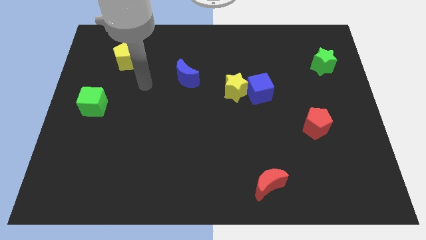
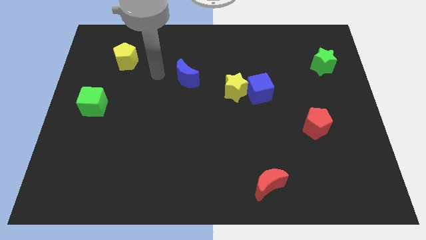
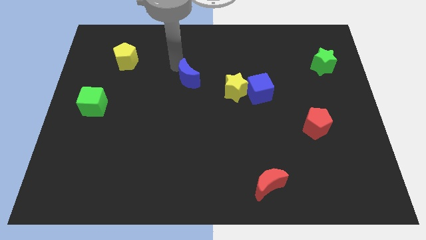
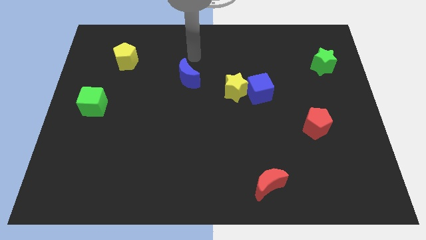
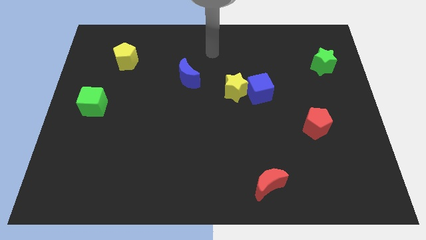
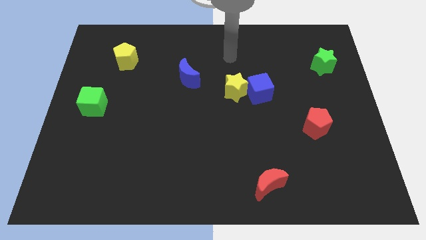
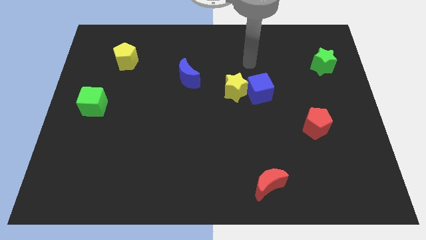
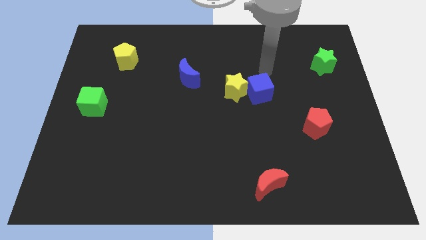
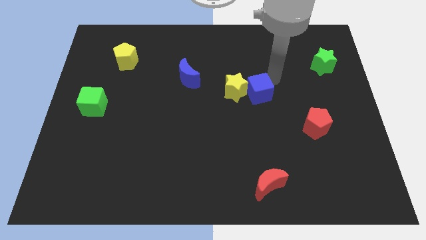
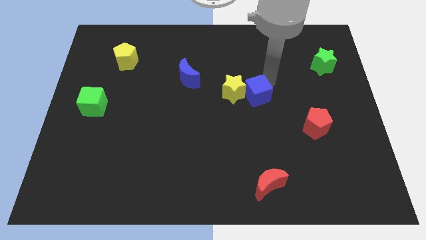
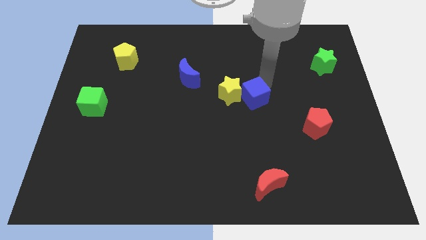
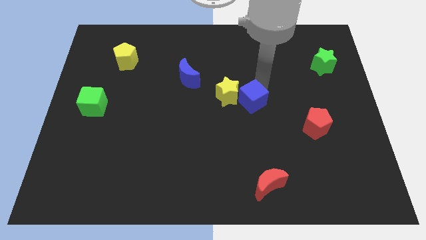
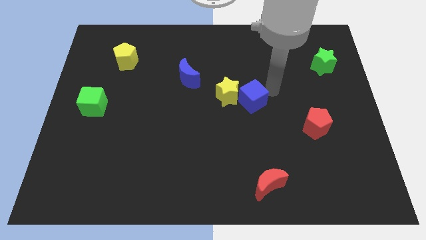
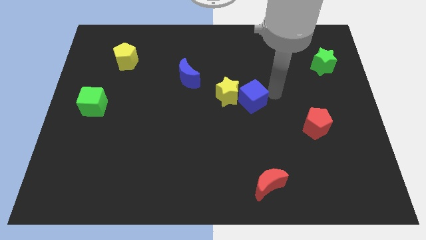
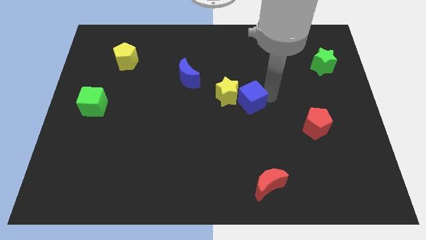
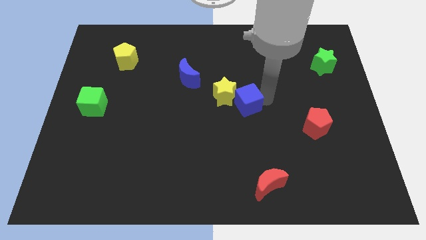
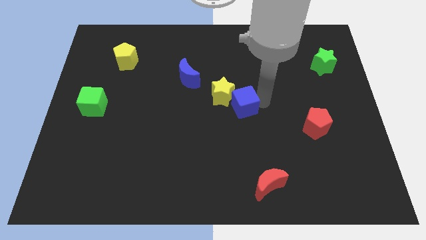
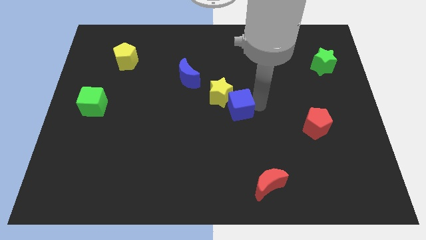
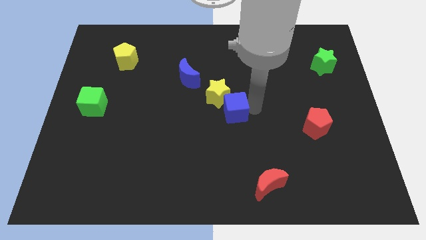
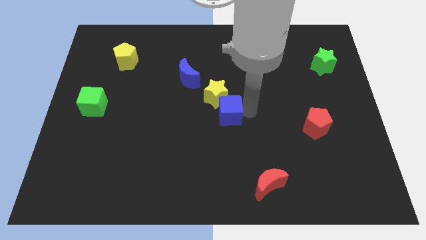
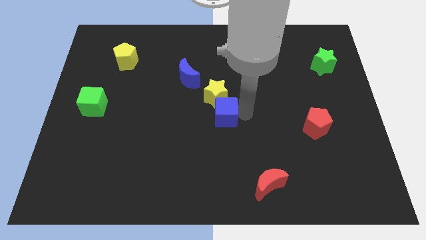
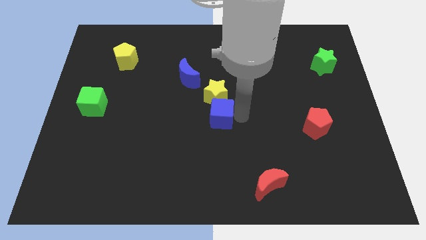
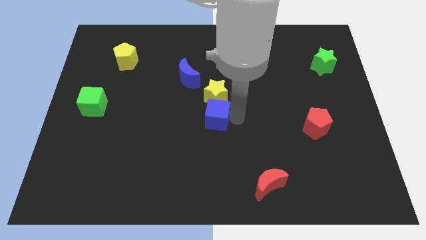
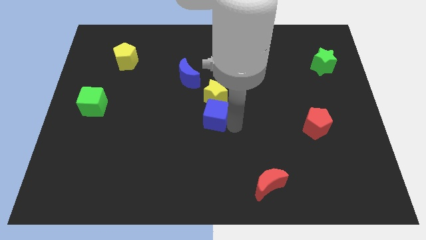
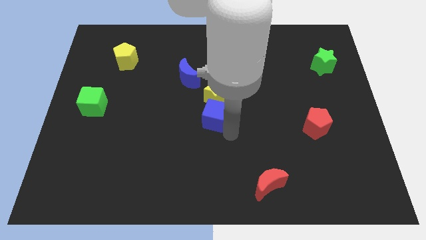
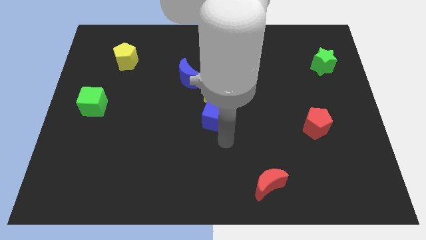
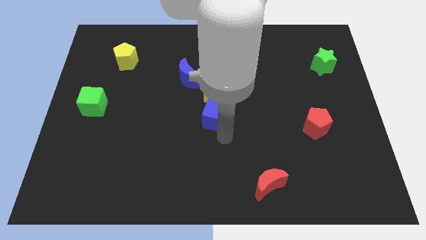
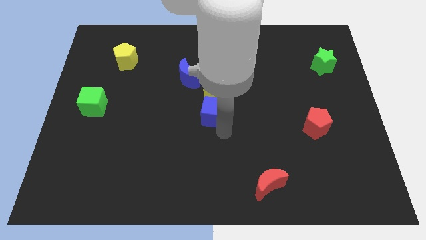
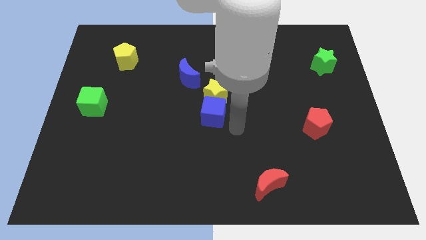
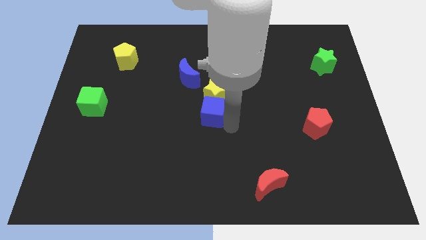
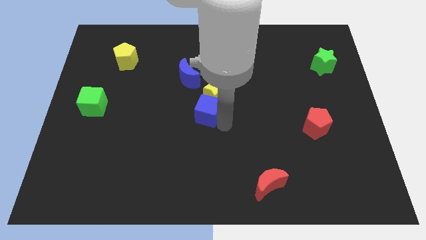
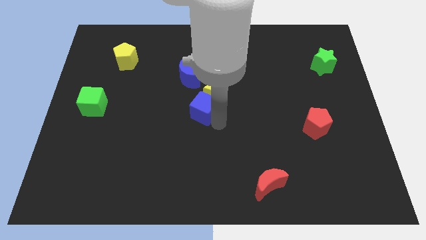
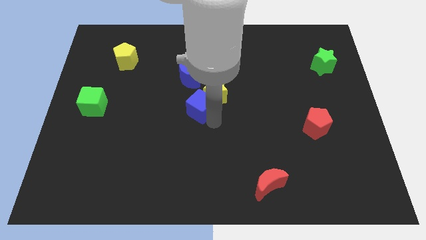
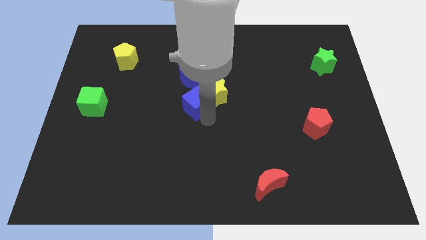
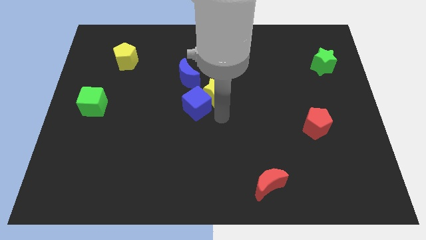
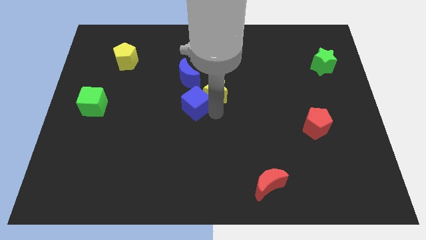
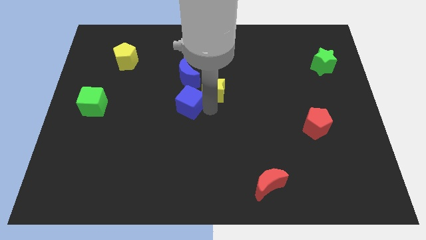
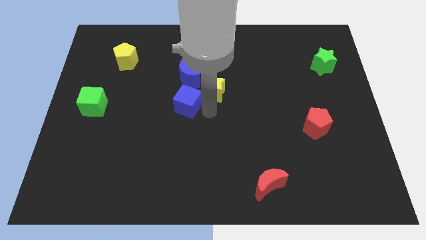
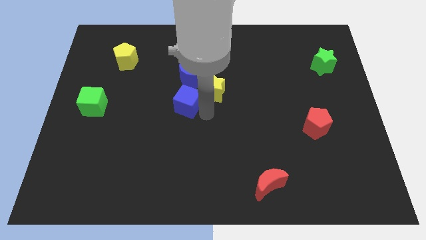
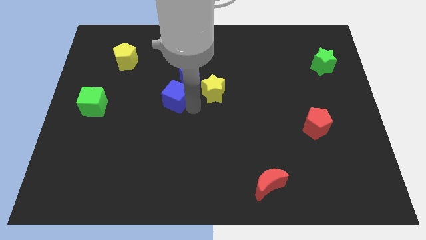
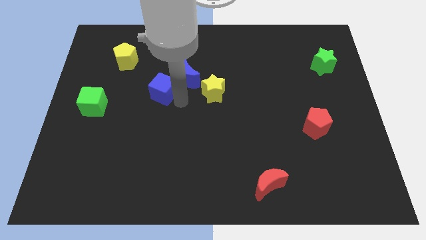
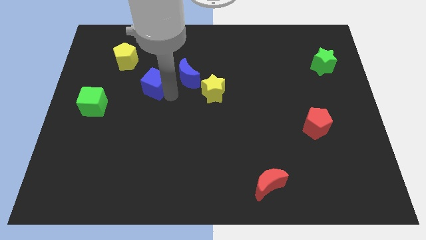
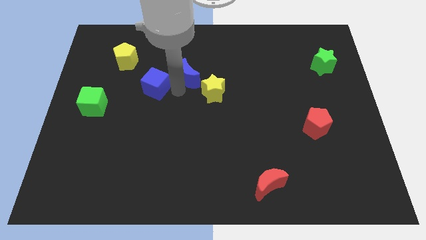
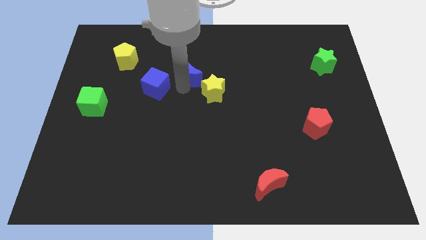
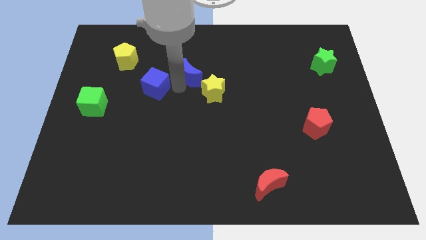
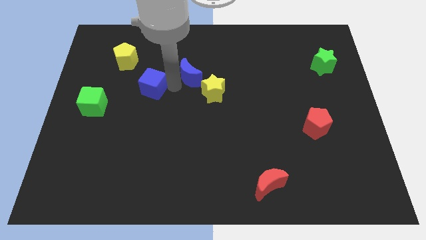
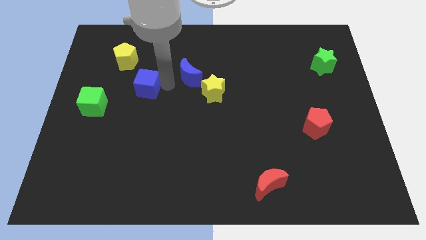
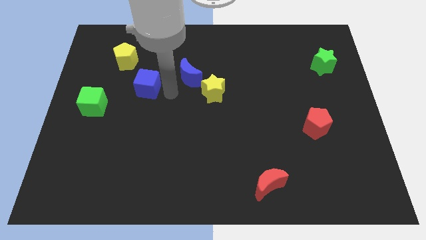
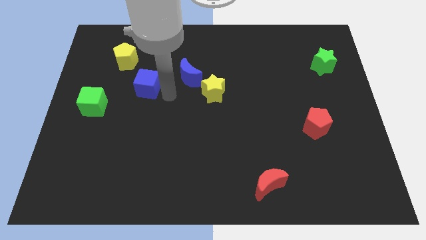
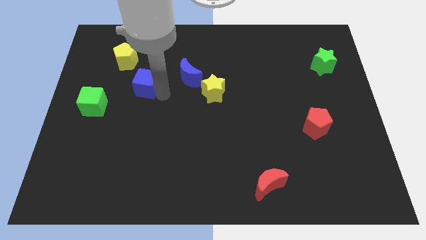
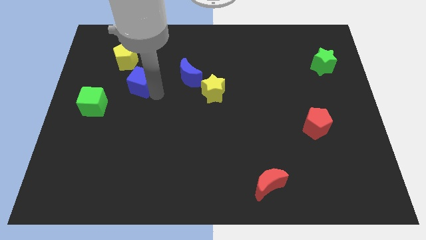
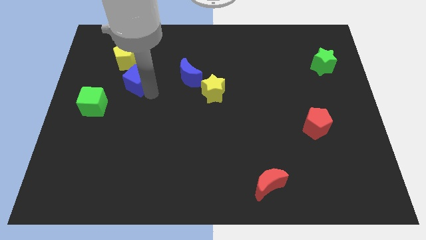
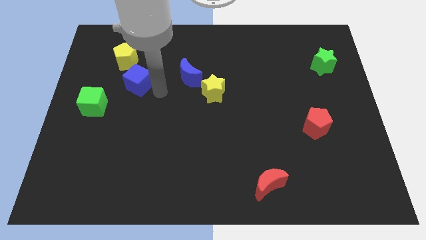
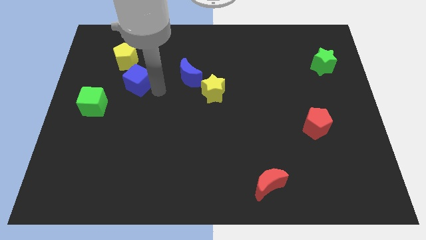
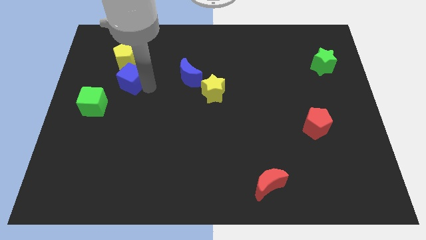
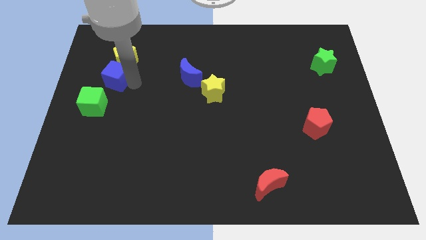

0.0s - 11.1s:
push the blue cube to the top side of the green cube

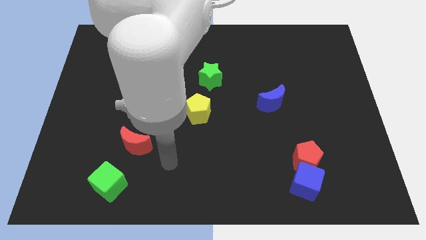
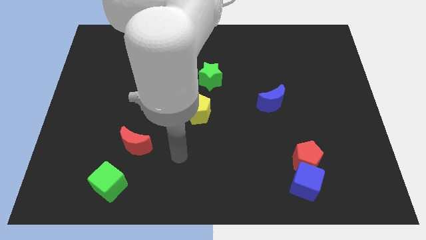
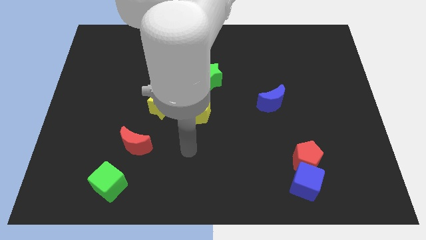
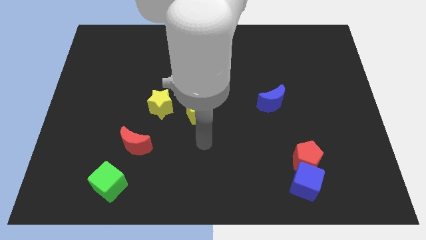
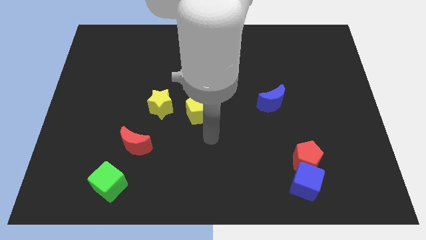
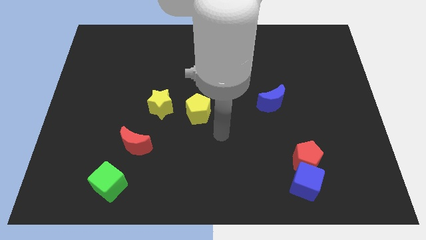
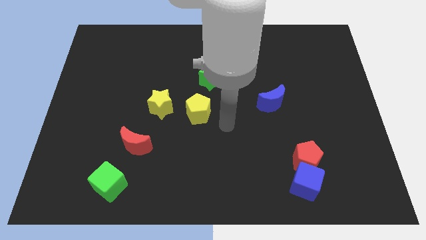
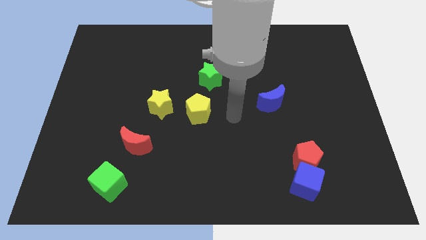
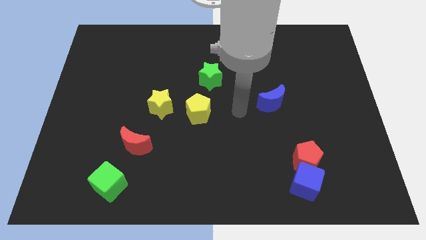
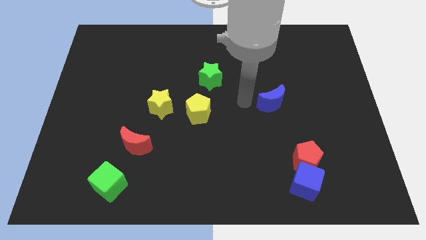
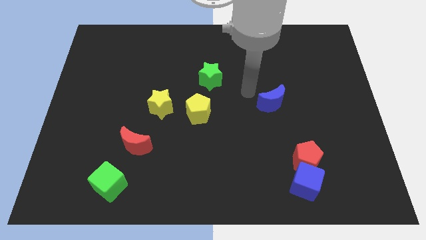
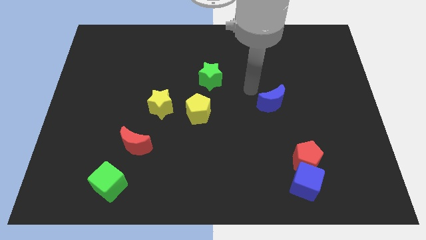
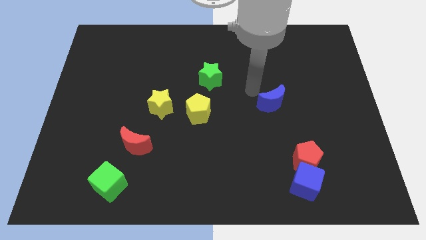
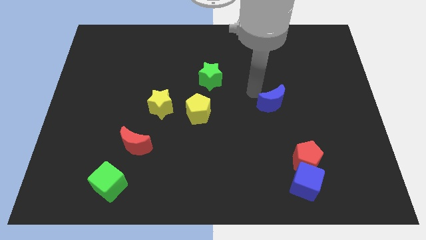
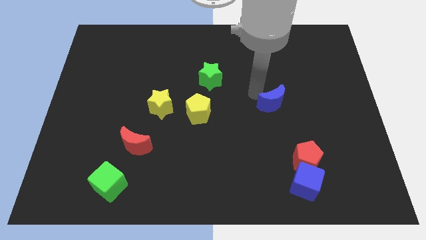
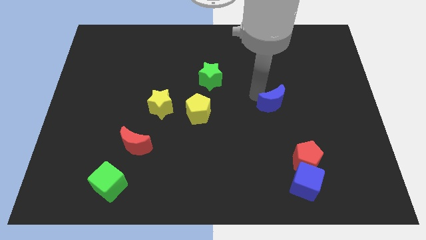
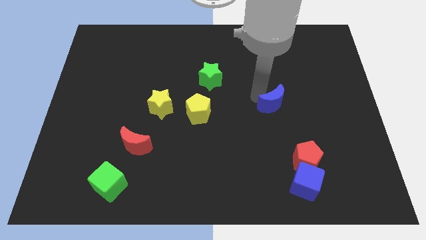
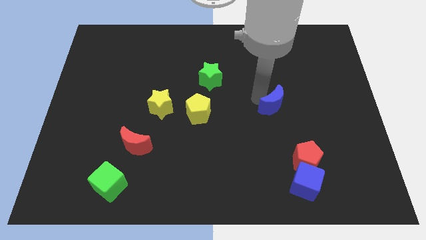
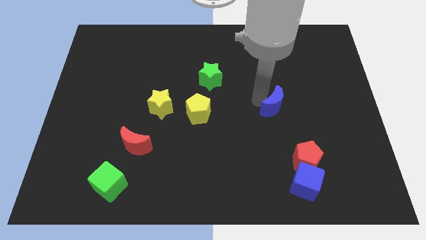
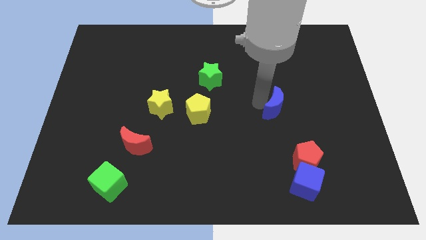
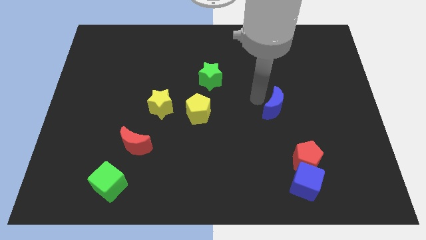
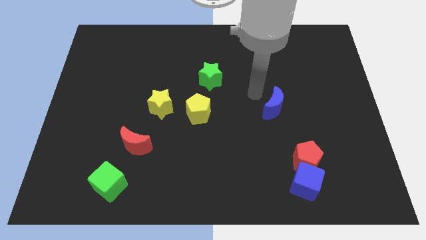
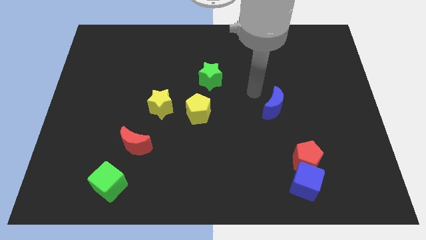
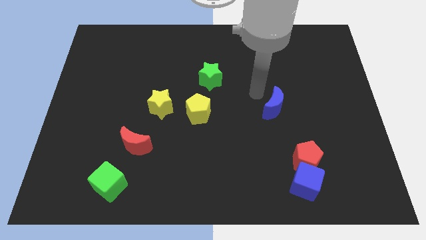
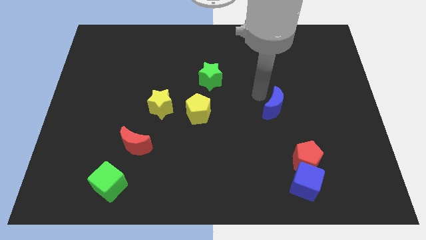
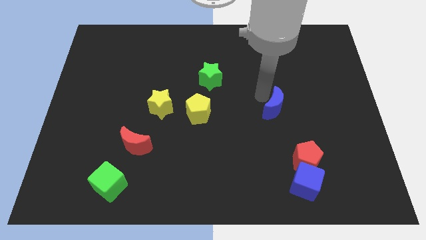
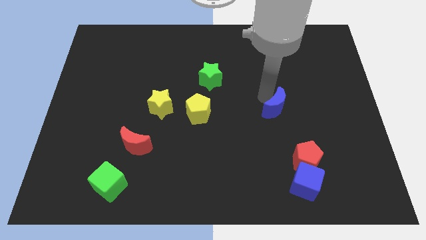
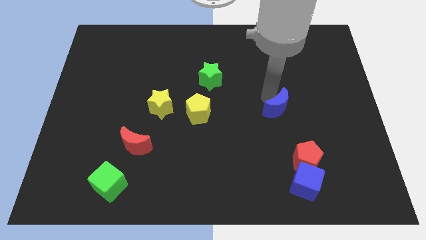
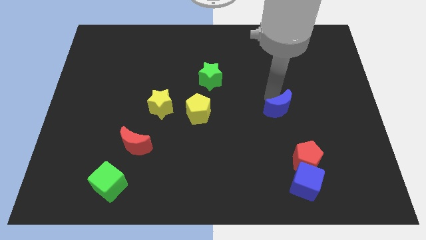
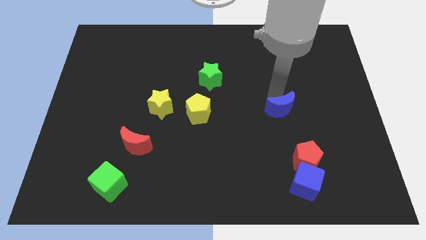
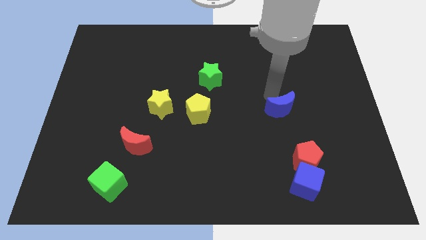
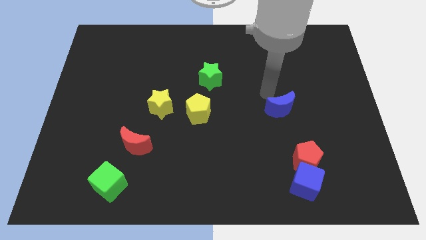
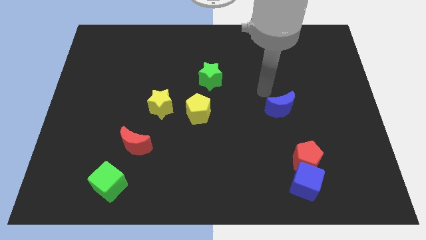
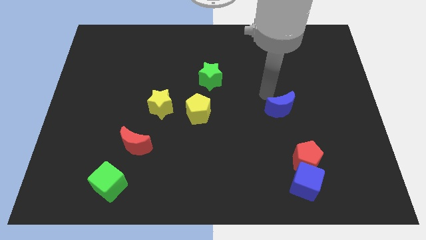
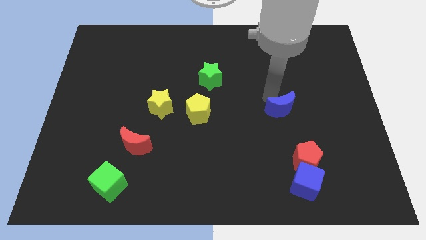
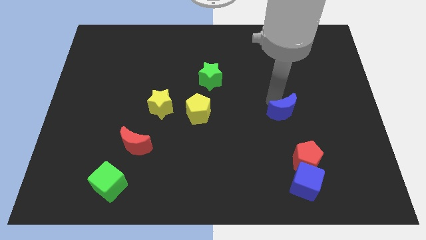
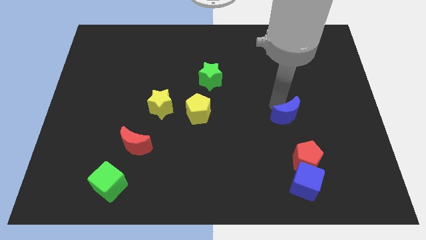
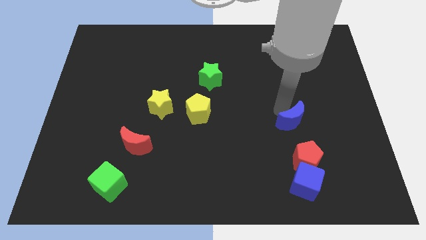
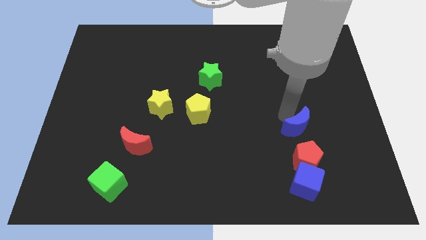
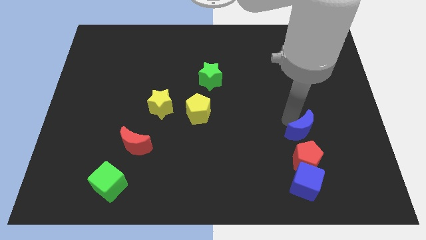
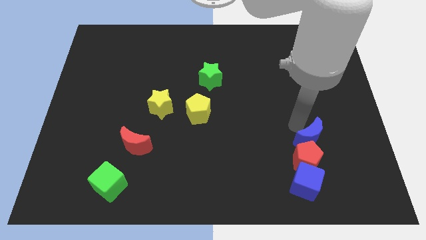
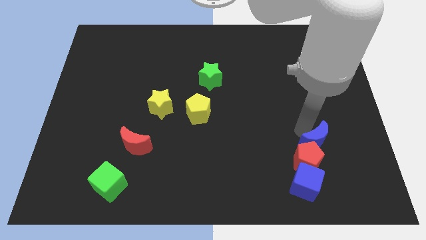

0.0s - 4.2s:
slide the blue moon to the top right side of the blue cube
